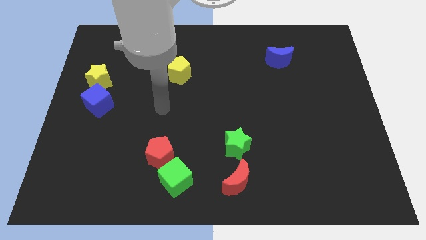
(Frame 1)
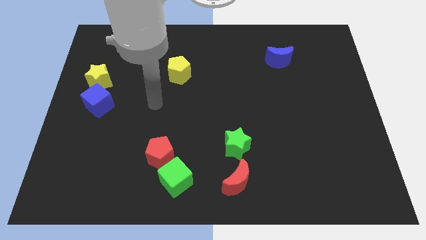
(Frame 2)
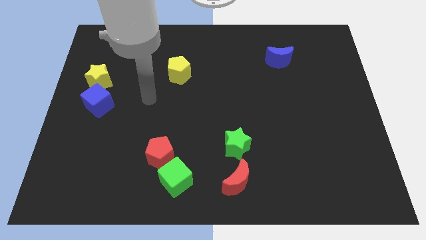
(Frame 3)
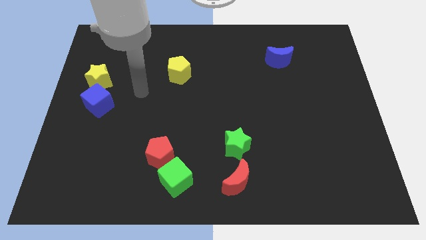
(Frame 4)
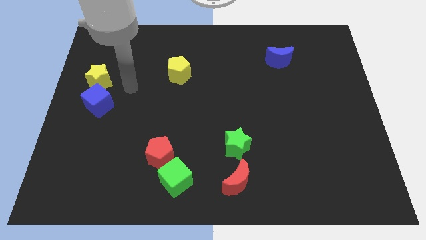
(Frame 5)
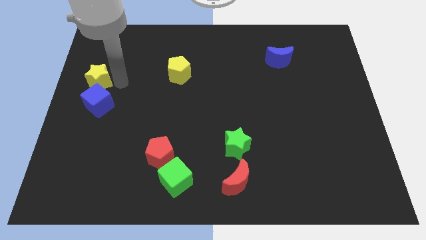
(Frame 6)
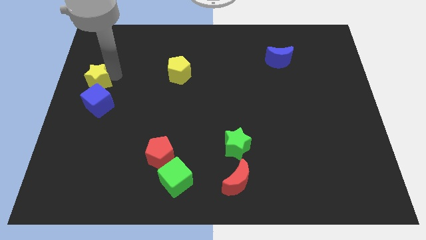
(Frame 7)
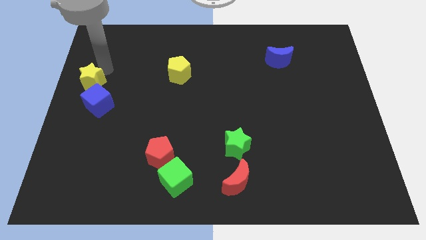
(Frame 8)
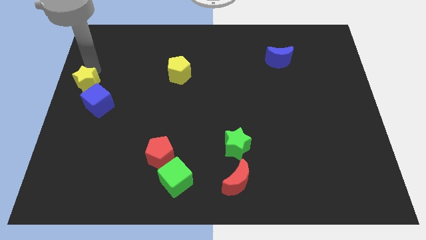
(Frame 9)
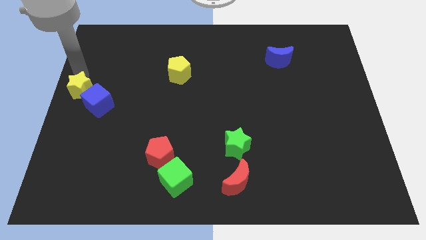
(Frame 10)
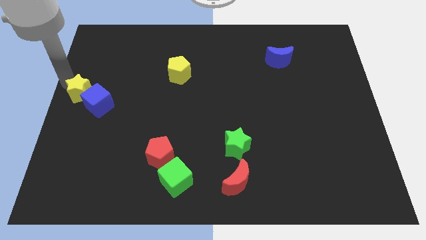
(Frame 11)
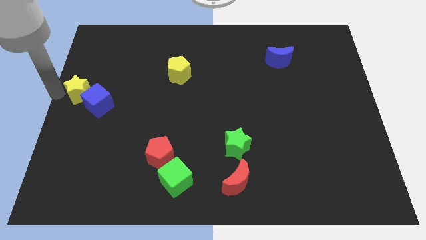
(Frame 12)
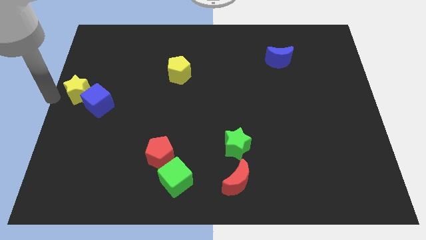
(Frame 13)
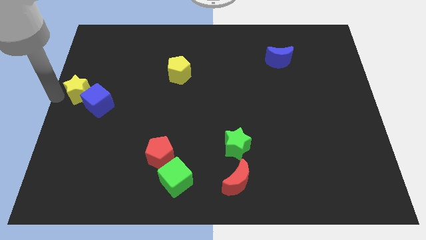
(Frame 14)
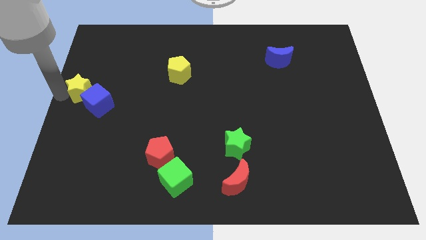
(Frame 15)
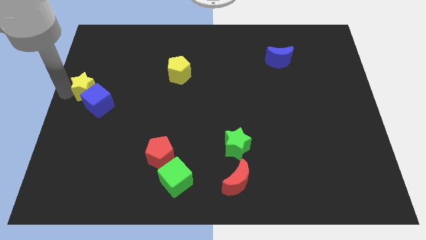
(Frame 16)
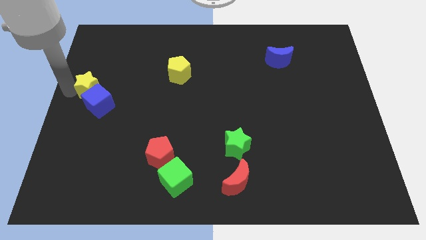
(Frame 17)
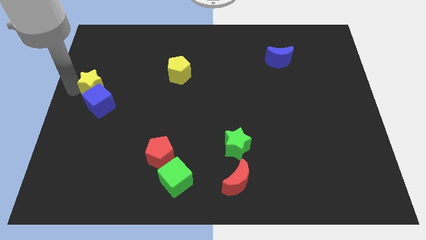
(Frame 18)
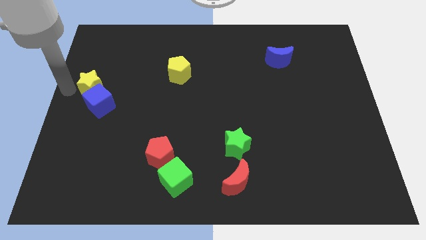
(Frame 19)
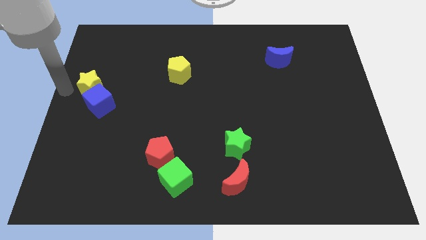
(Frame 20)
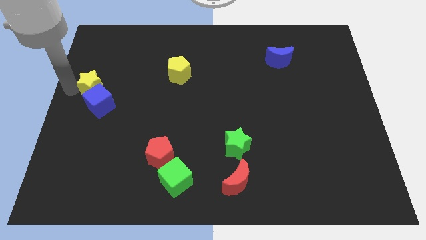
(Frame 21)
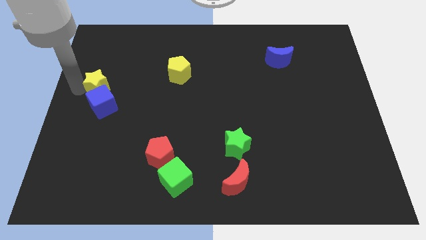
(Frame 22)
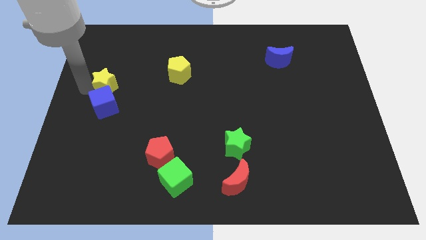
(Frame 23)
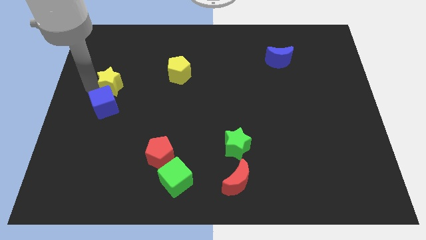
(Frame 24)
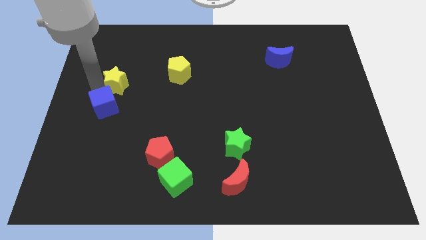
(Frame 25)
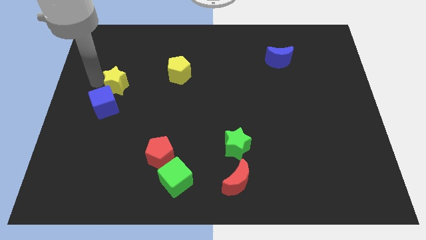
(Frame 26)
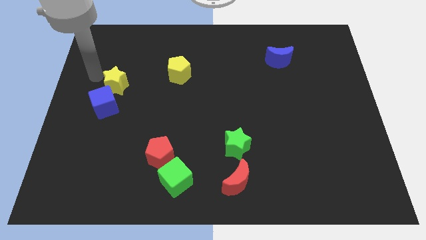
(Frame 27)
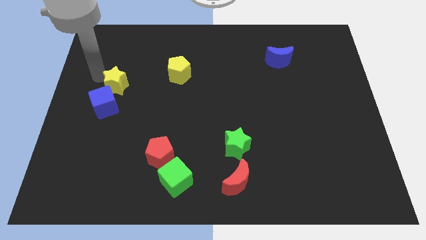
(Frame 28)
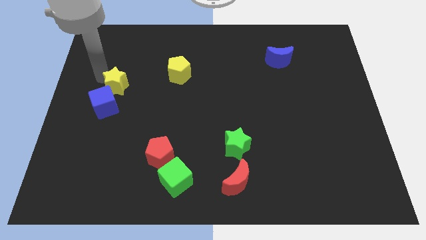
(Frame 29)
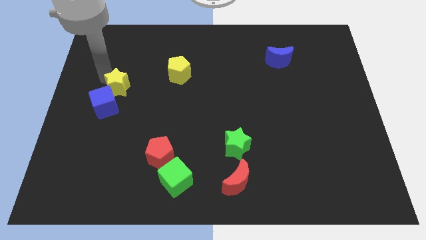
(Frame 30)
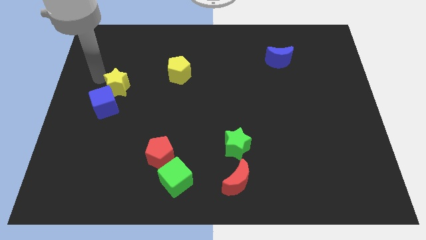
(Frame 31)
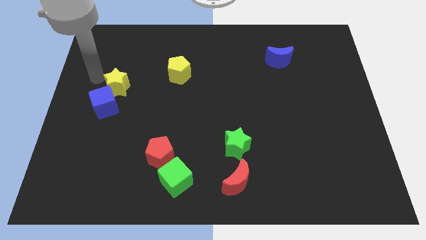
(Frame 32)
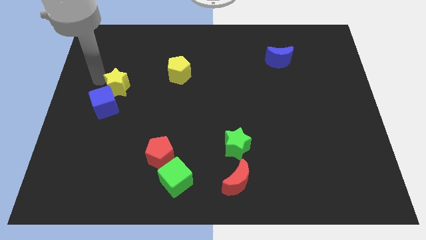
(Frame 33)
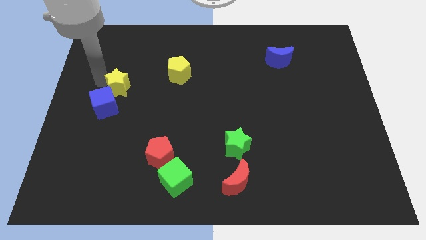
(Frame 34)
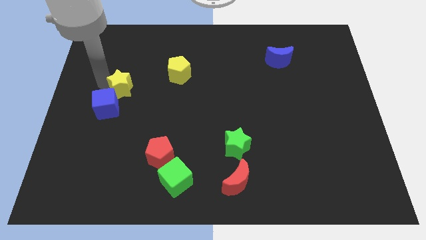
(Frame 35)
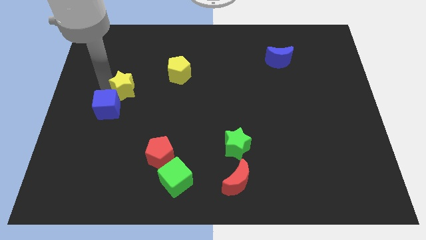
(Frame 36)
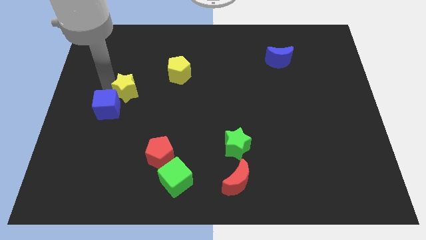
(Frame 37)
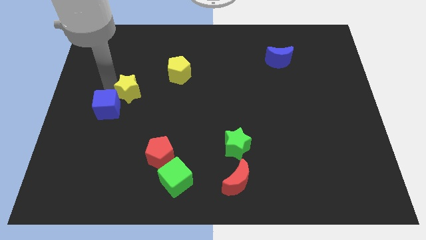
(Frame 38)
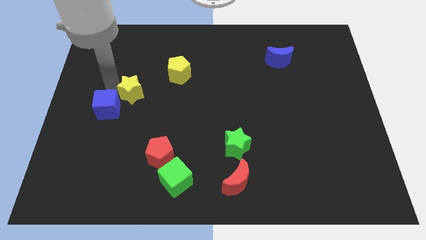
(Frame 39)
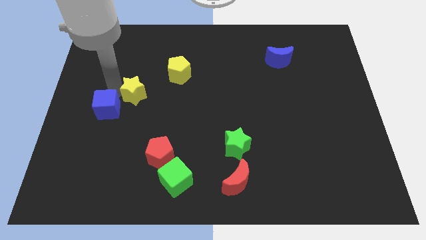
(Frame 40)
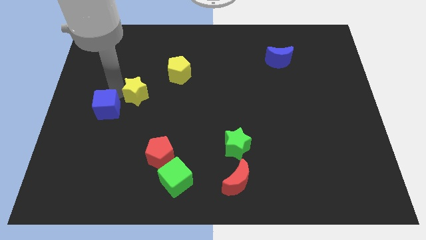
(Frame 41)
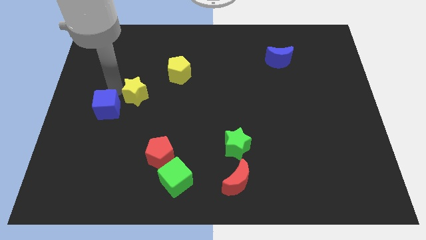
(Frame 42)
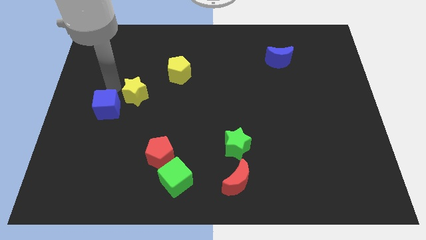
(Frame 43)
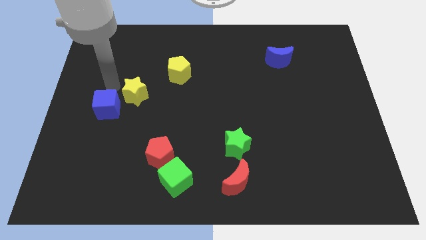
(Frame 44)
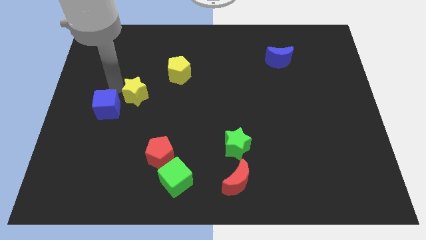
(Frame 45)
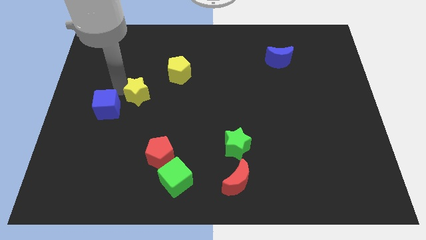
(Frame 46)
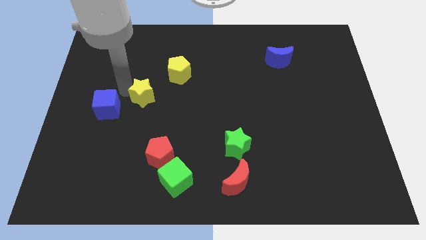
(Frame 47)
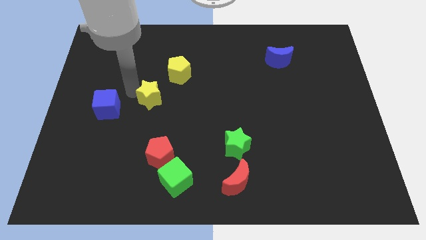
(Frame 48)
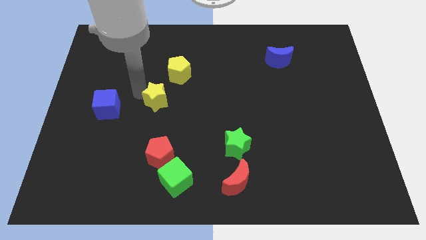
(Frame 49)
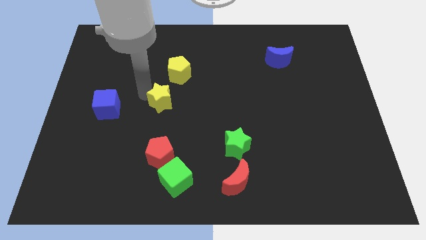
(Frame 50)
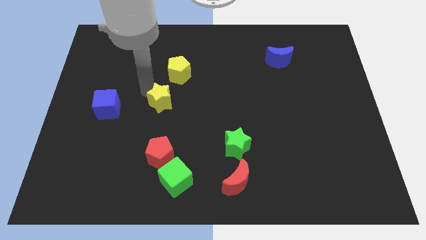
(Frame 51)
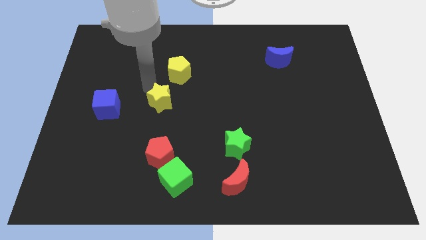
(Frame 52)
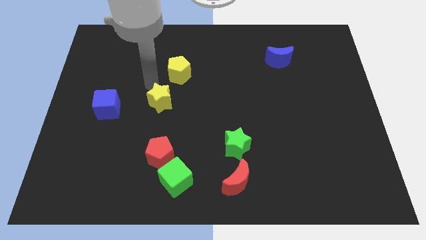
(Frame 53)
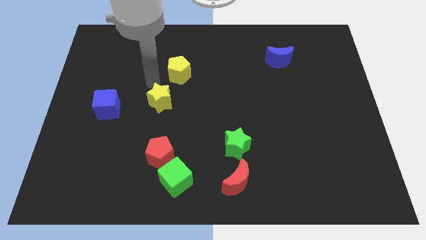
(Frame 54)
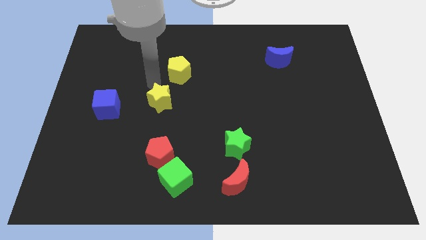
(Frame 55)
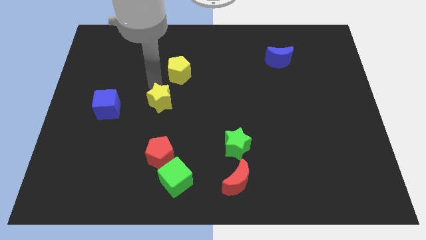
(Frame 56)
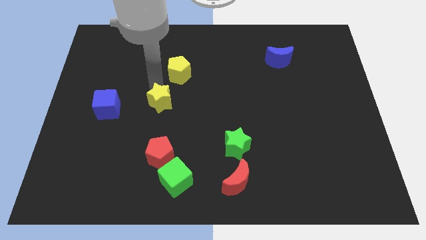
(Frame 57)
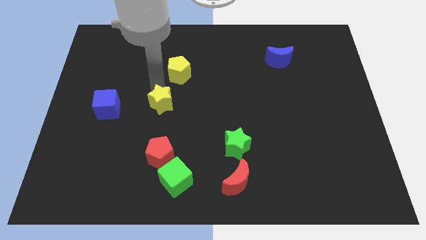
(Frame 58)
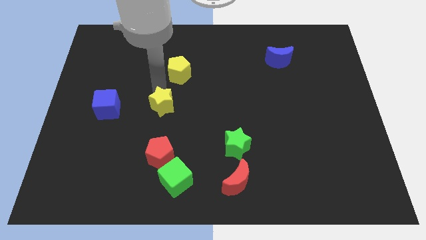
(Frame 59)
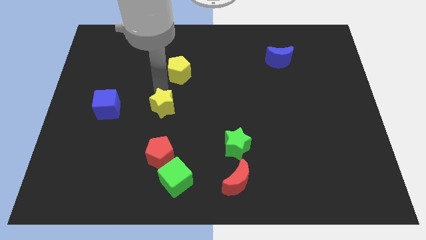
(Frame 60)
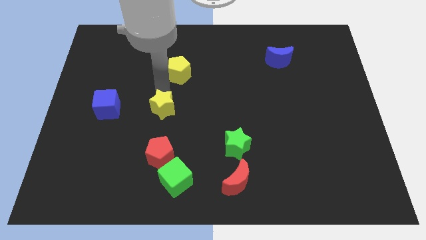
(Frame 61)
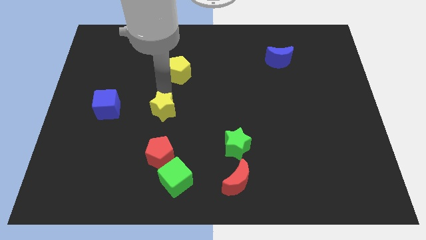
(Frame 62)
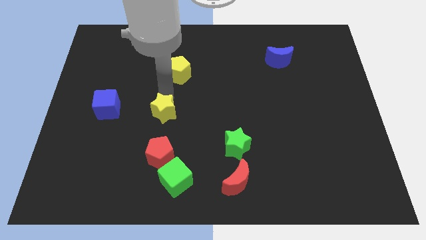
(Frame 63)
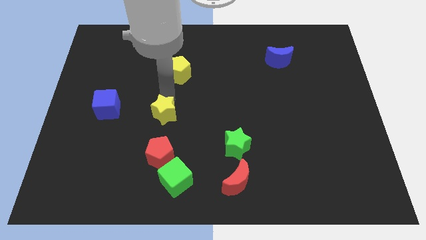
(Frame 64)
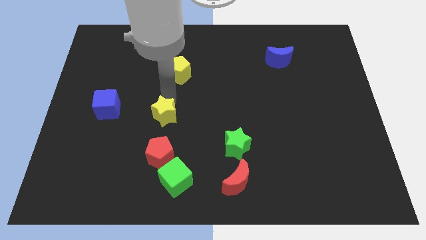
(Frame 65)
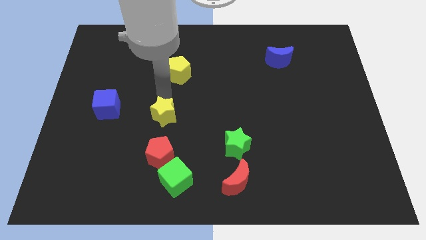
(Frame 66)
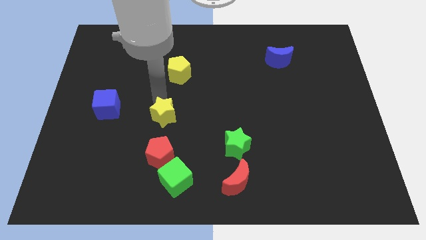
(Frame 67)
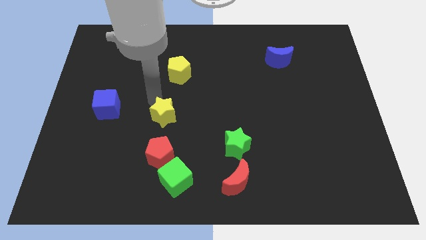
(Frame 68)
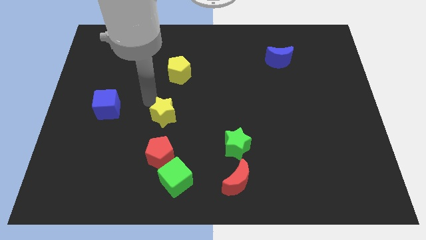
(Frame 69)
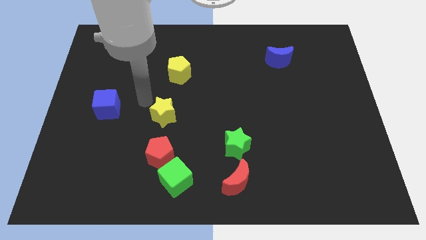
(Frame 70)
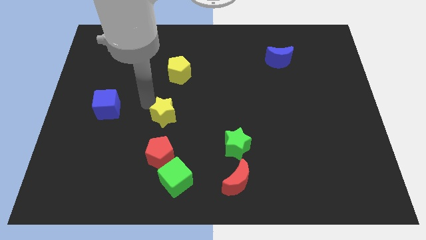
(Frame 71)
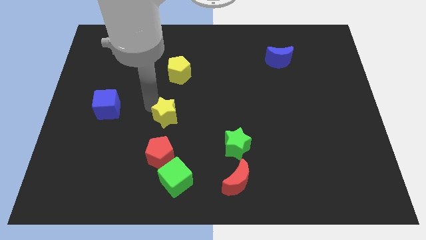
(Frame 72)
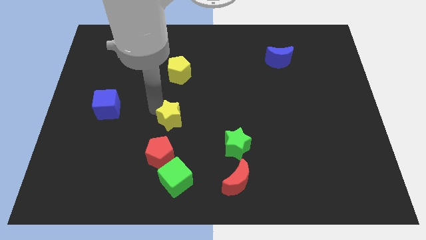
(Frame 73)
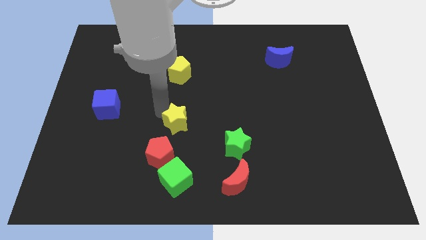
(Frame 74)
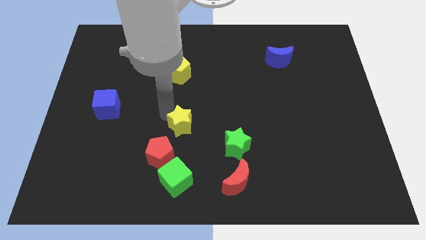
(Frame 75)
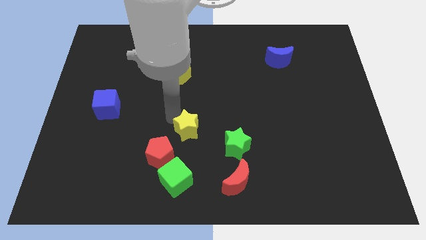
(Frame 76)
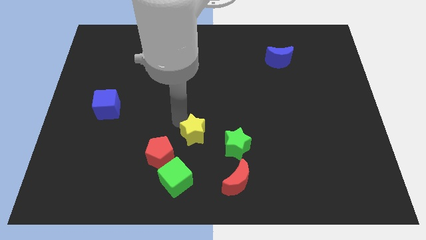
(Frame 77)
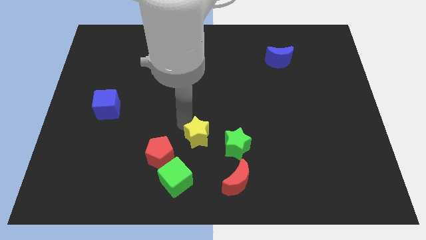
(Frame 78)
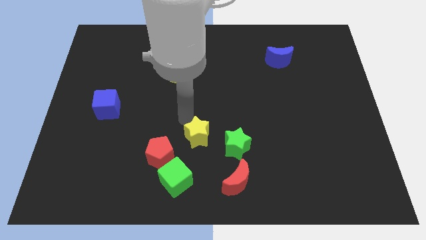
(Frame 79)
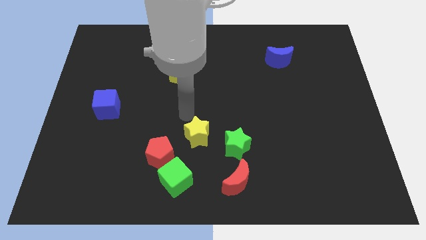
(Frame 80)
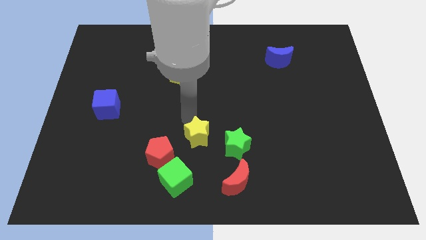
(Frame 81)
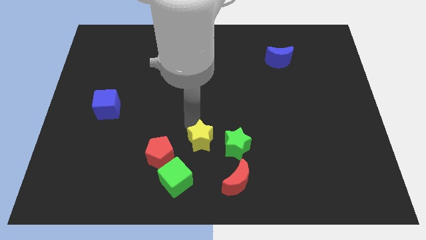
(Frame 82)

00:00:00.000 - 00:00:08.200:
push the yellow star right of the red pentagon
